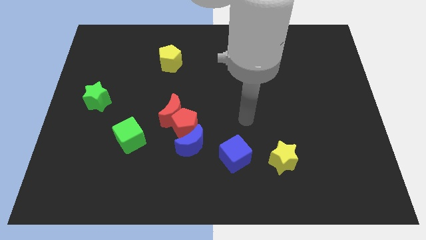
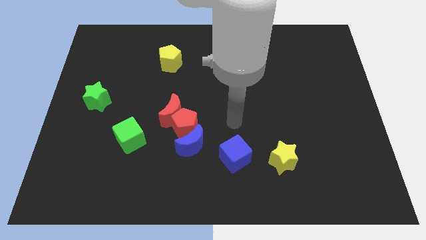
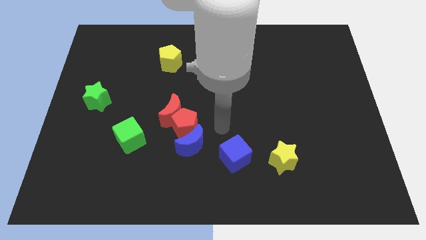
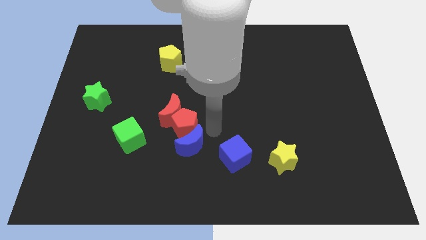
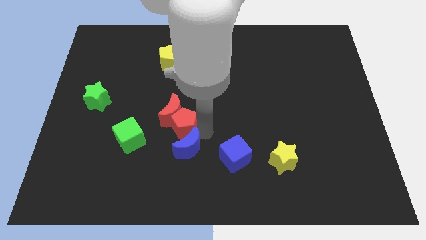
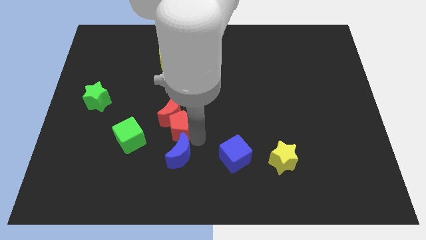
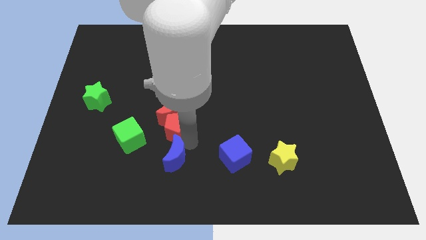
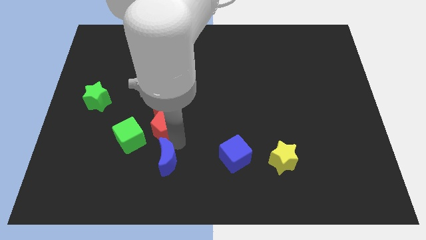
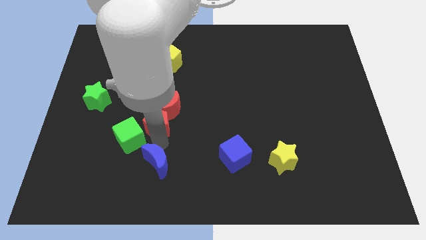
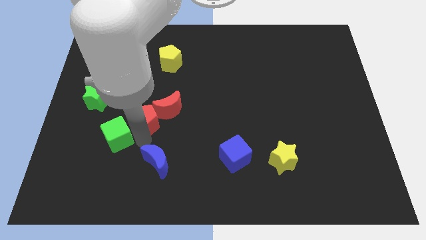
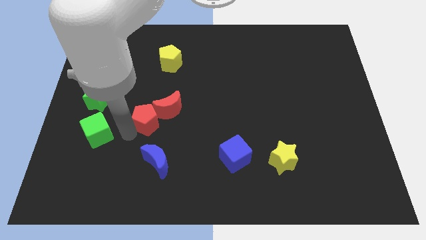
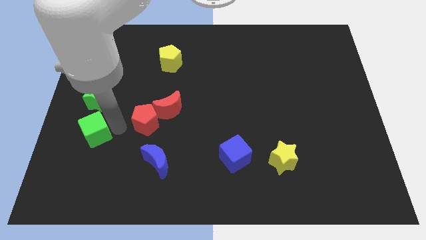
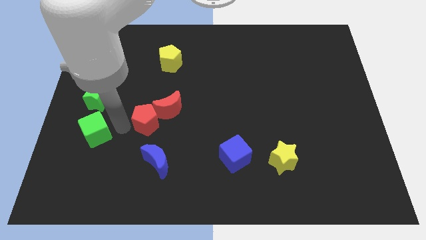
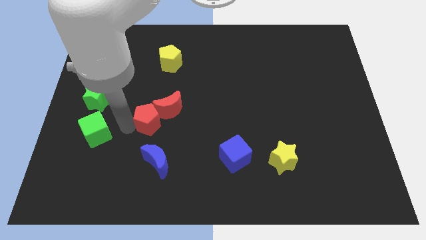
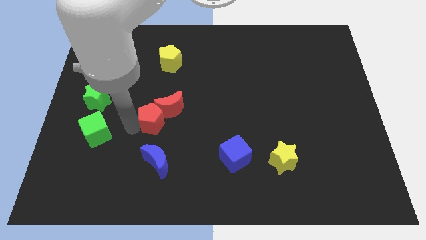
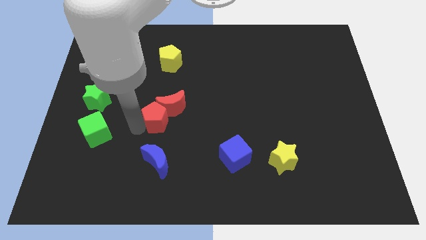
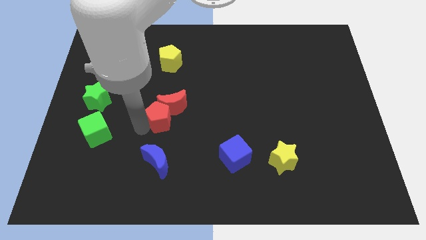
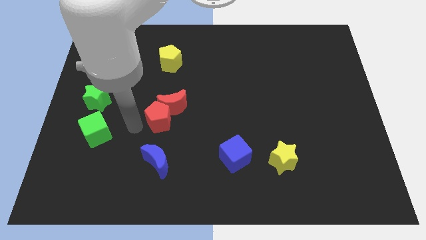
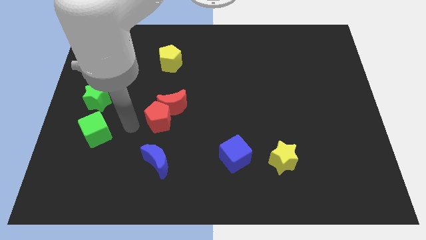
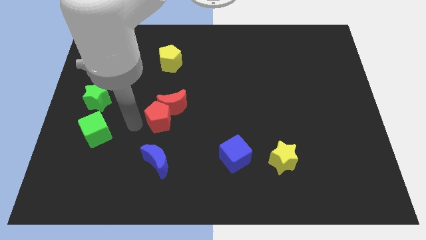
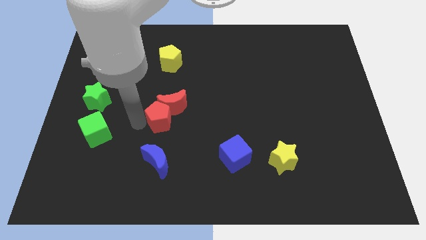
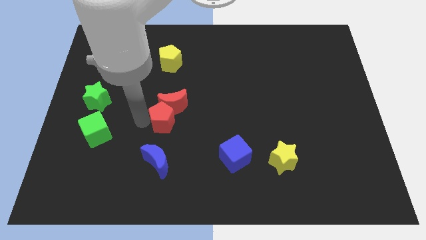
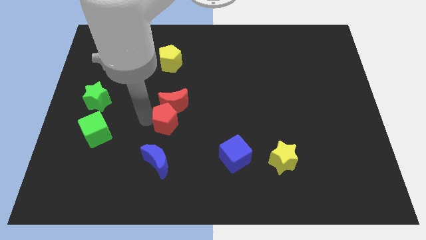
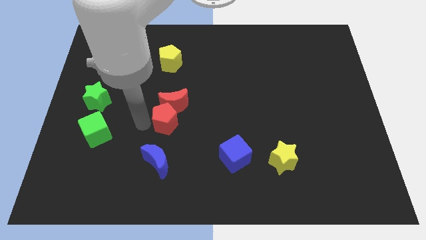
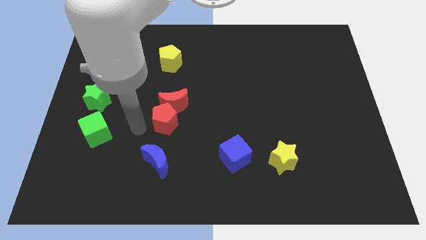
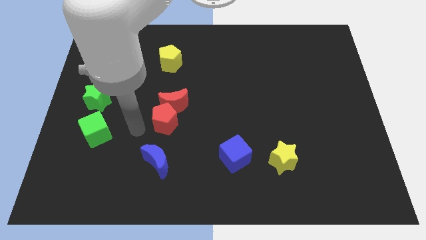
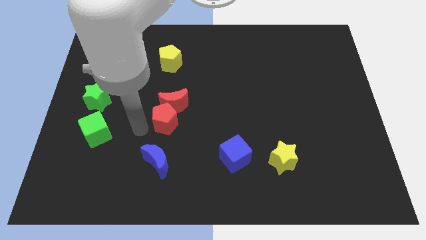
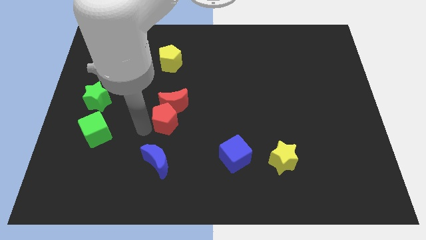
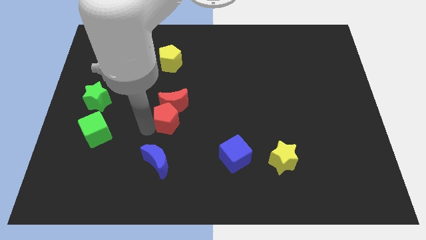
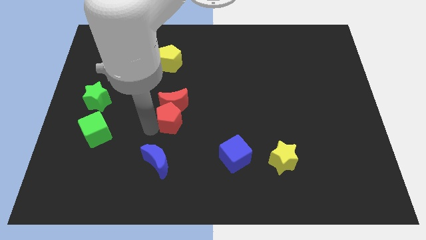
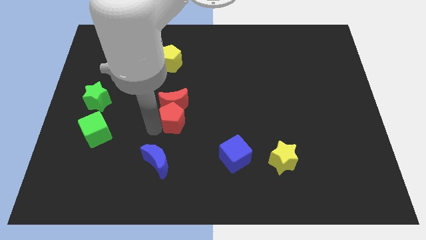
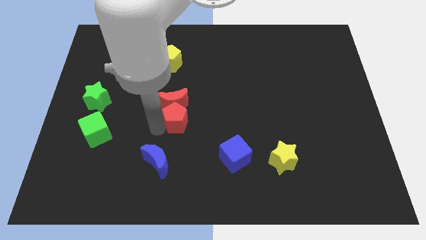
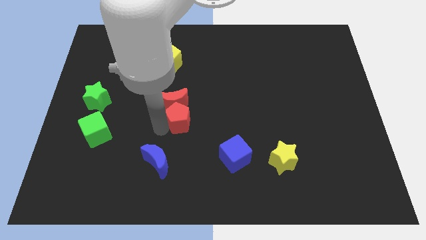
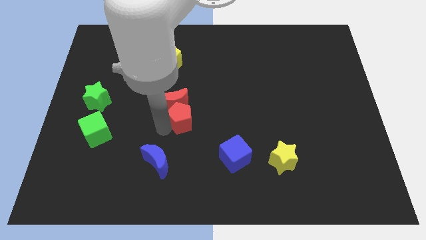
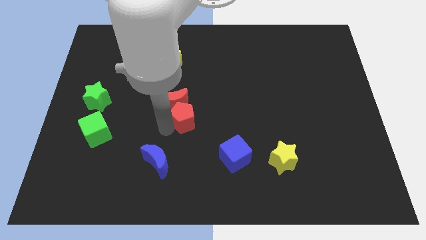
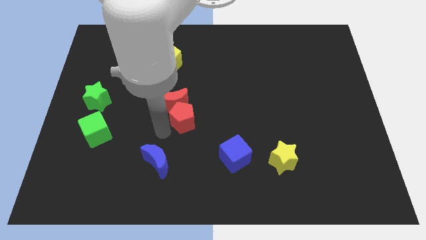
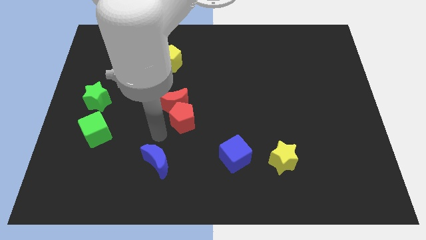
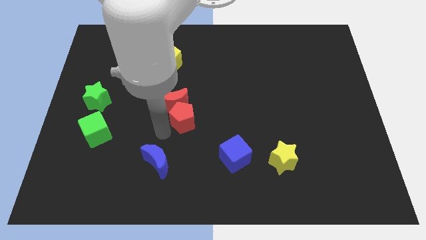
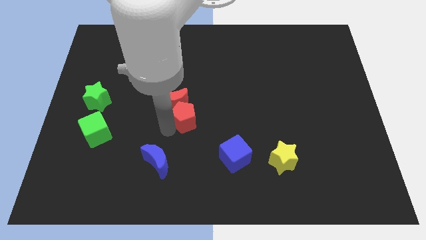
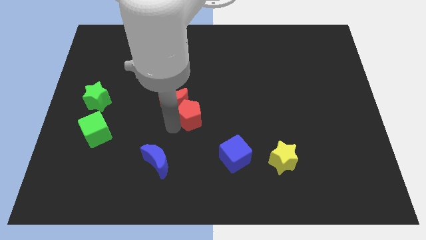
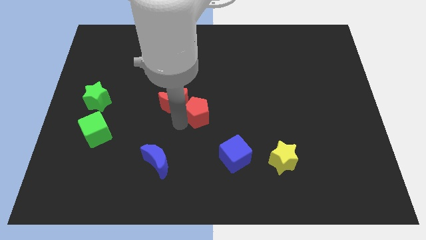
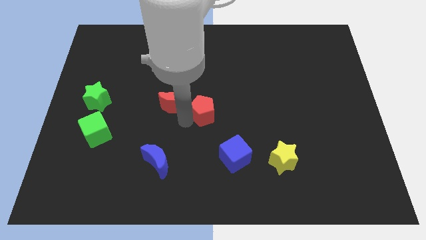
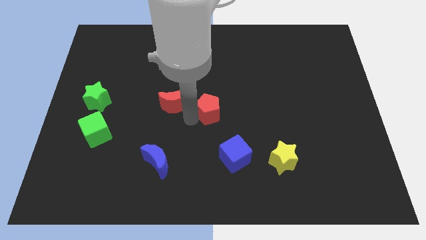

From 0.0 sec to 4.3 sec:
pull the red pentagon apart from the red moon and blue moon

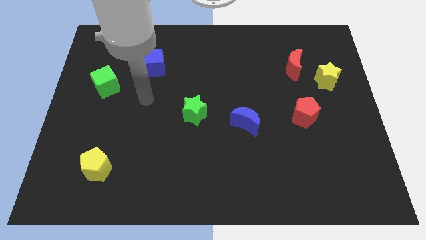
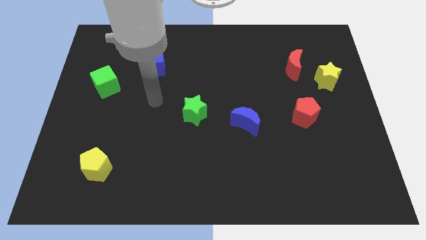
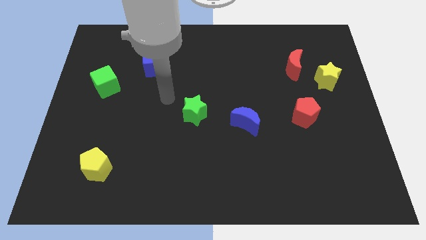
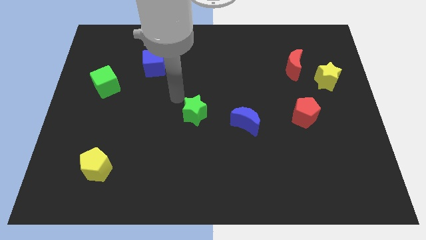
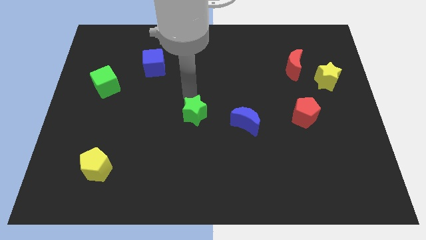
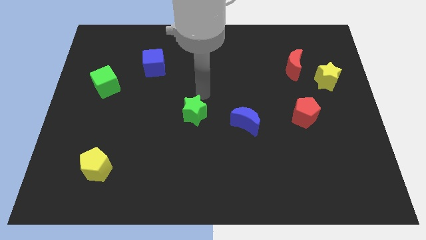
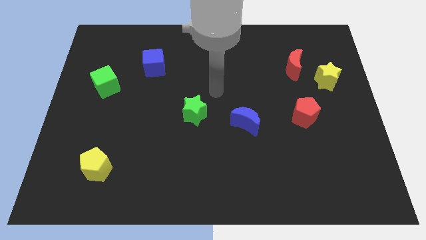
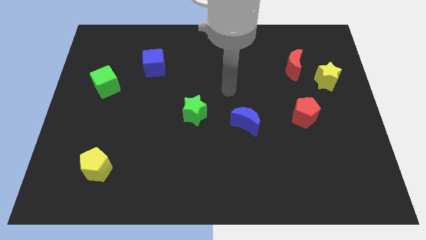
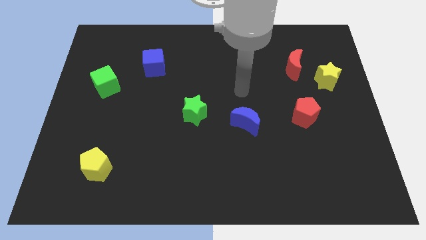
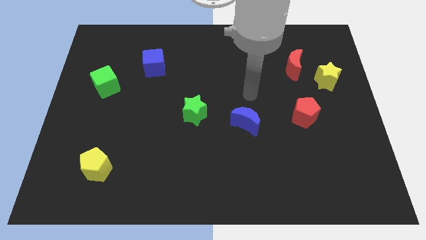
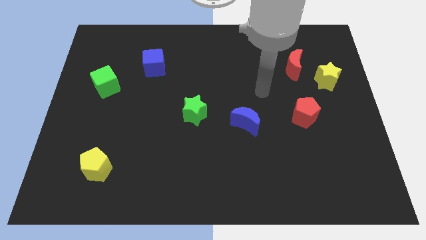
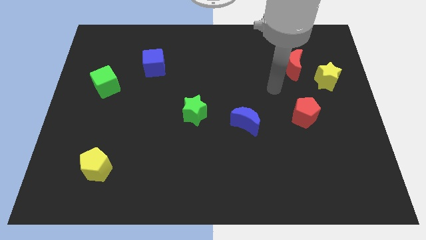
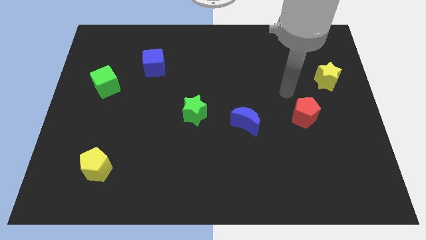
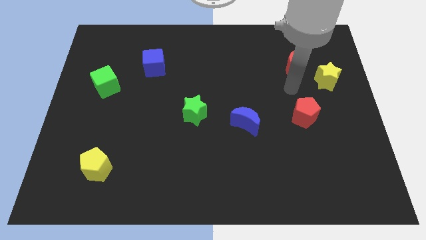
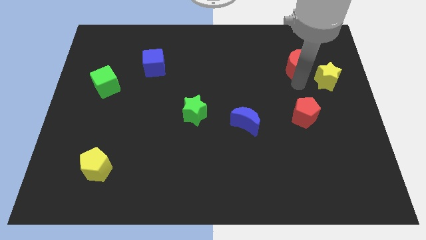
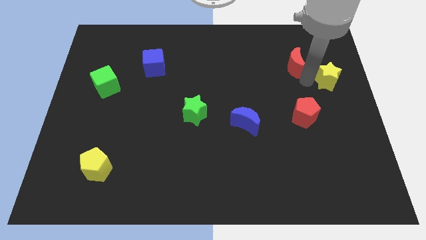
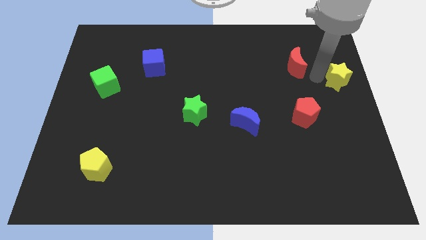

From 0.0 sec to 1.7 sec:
move the red moon away from the yellow star

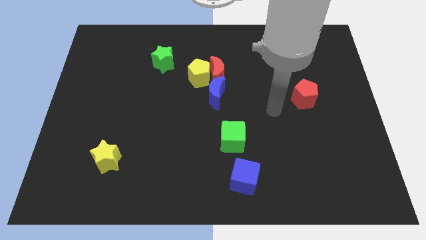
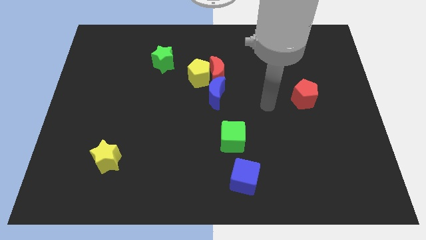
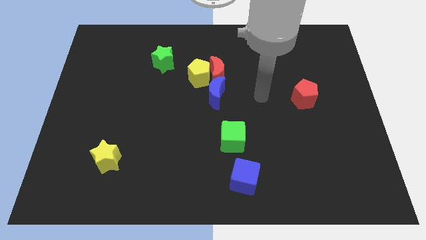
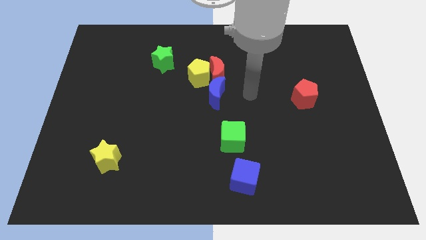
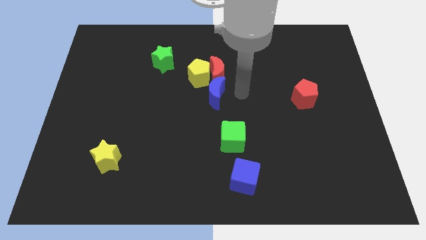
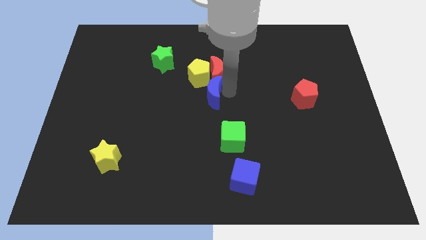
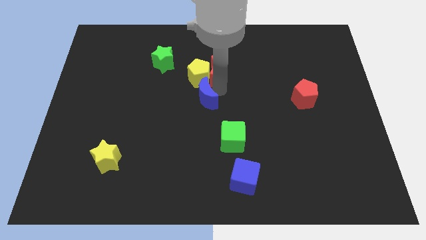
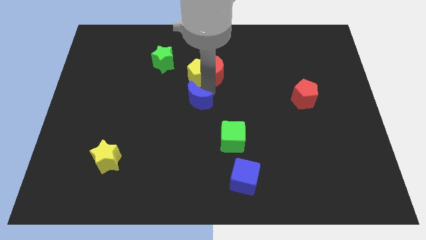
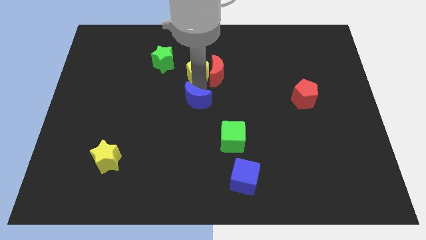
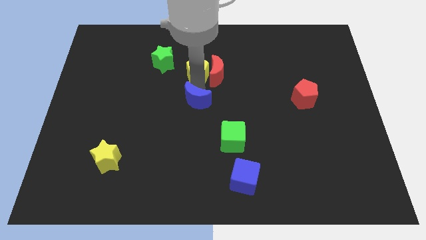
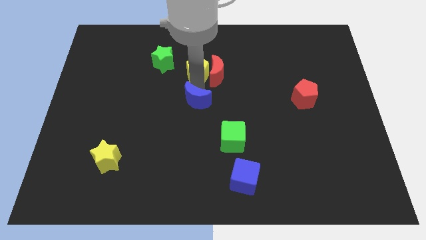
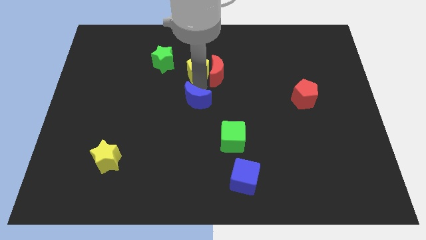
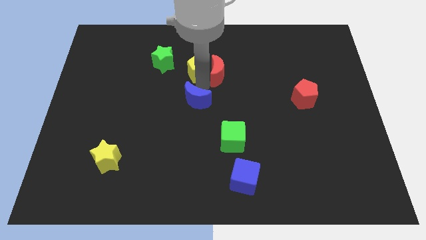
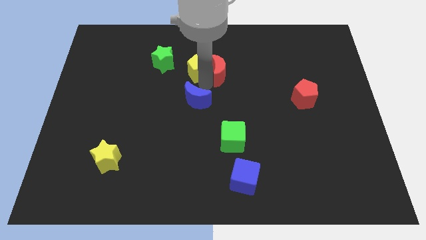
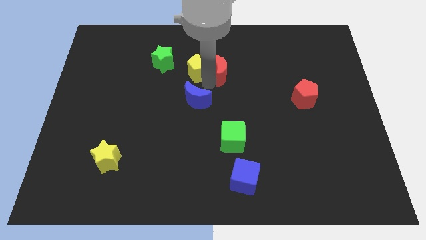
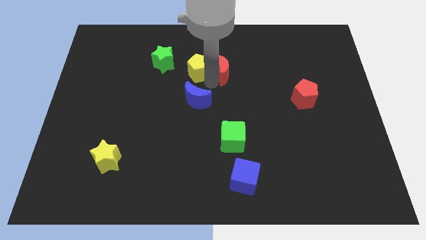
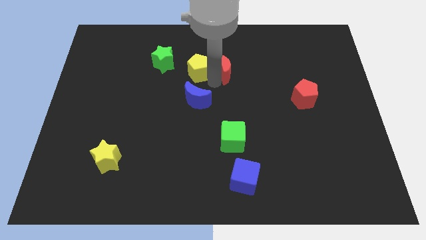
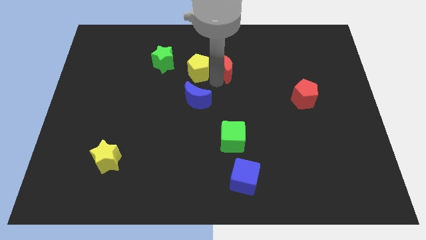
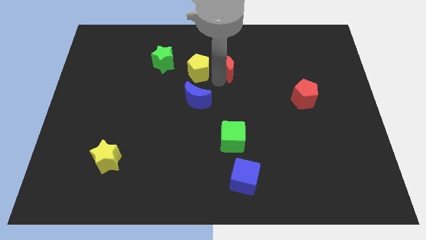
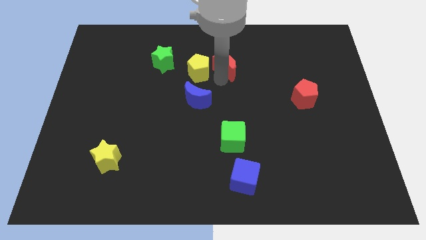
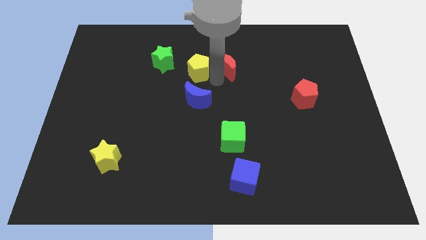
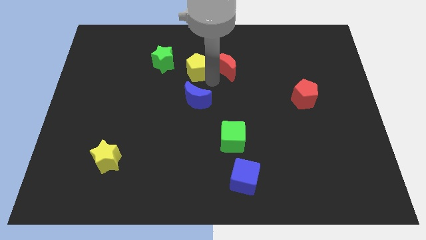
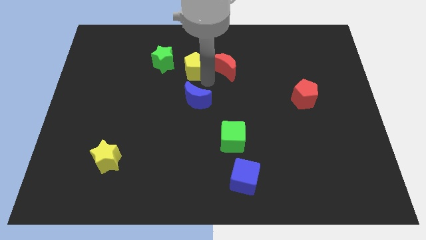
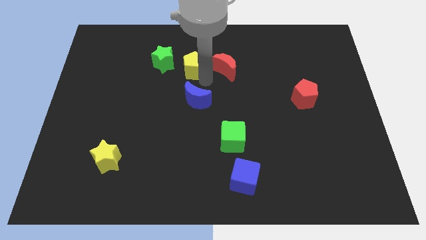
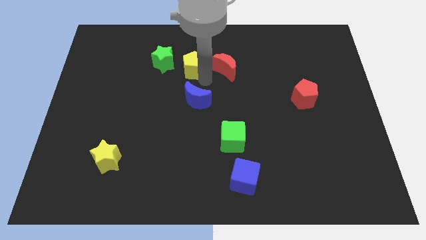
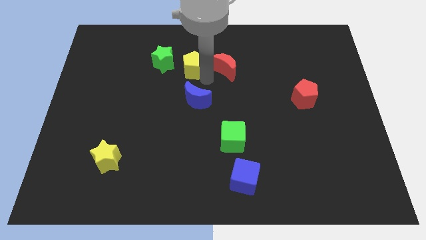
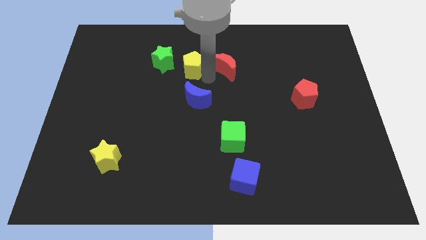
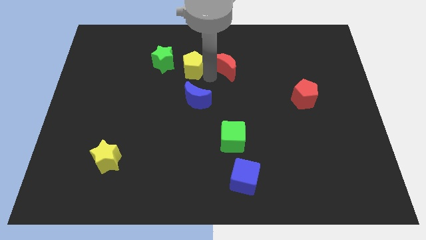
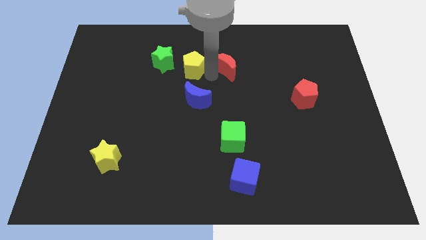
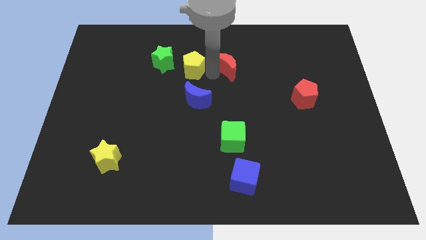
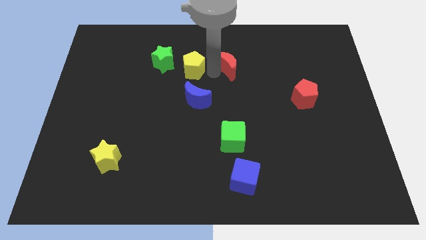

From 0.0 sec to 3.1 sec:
pull the red moon apart from the yellow pentagon and blue moon

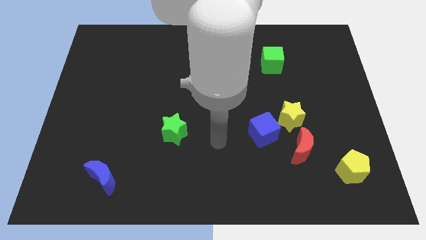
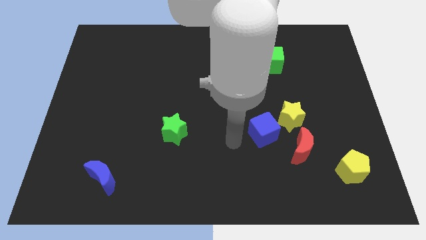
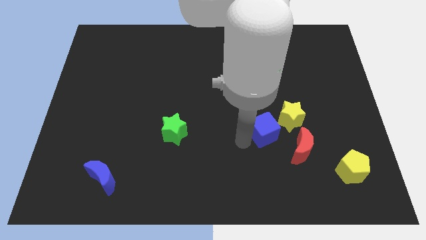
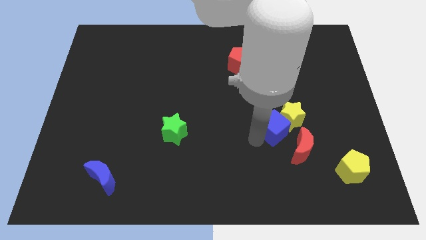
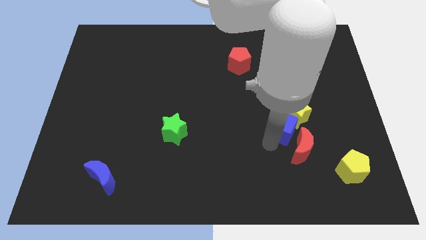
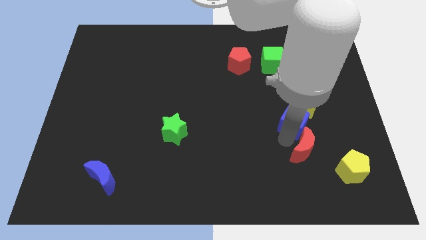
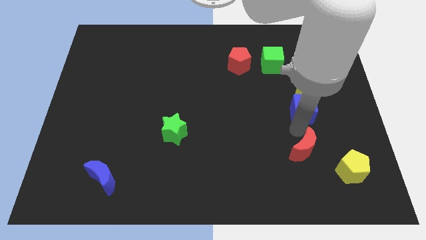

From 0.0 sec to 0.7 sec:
separate the yellow star from the blue cube and red moon
